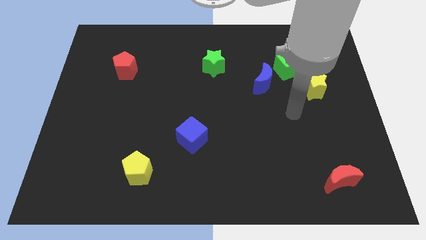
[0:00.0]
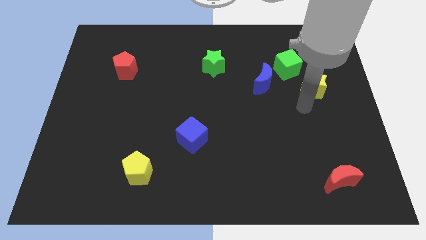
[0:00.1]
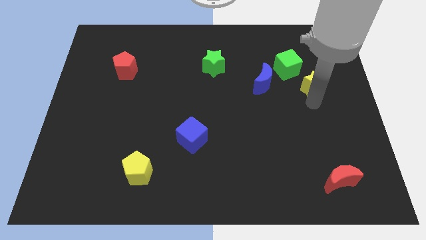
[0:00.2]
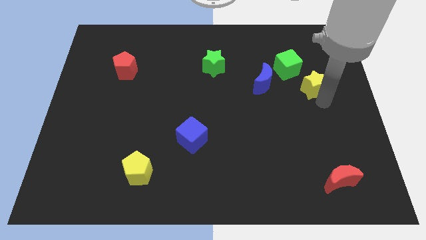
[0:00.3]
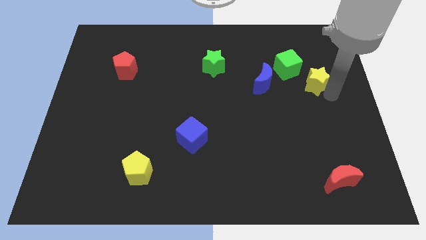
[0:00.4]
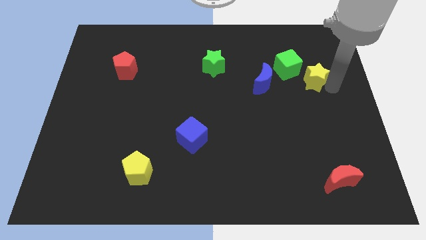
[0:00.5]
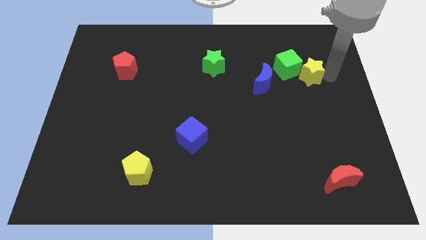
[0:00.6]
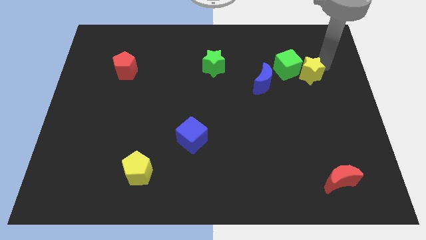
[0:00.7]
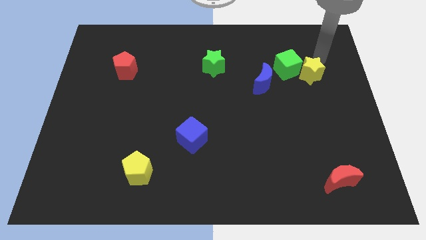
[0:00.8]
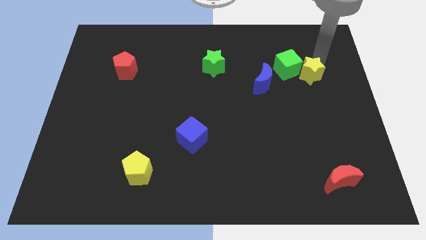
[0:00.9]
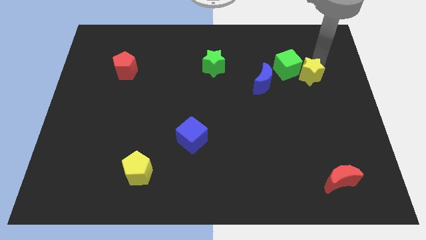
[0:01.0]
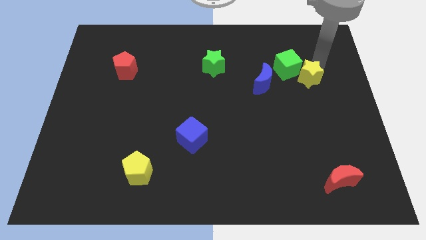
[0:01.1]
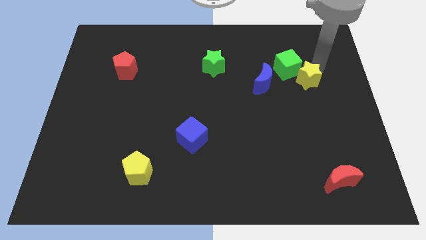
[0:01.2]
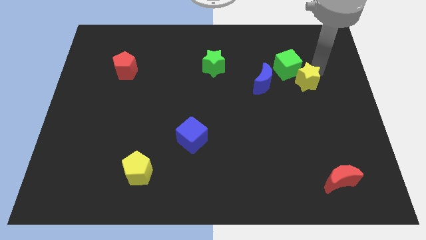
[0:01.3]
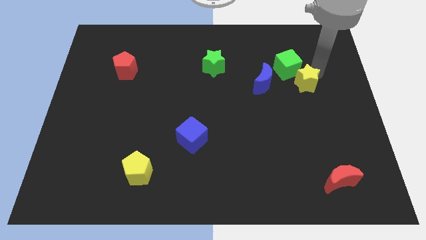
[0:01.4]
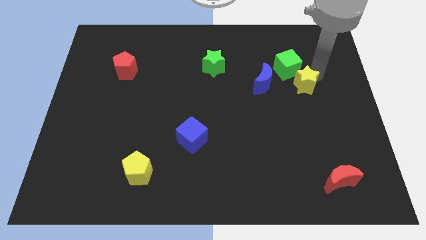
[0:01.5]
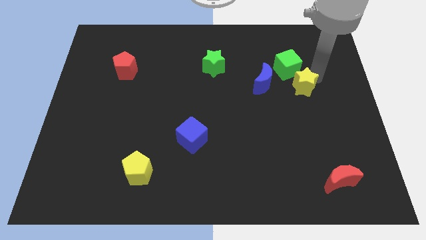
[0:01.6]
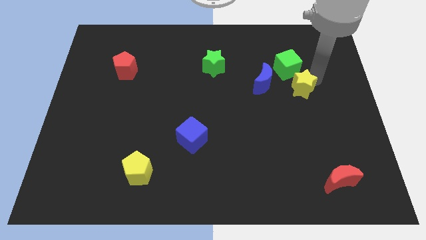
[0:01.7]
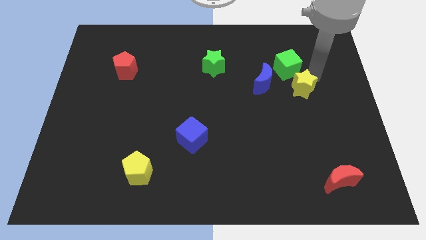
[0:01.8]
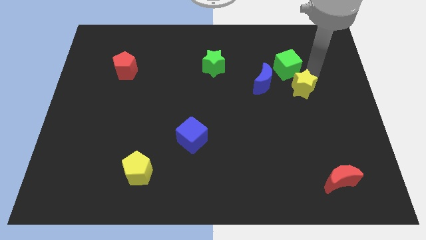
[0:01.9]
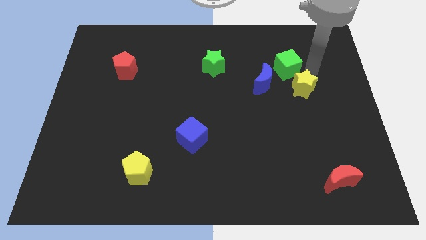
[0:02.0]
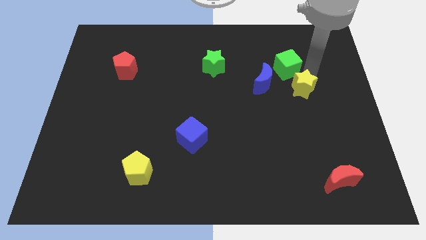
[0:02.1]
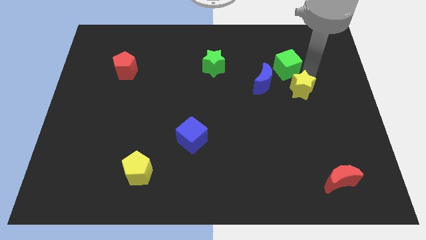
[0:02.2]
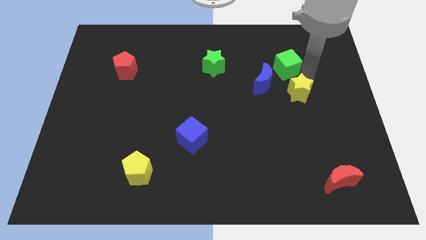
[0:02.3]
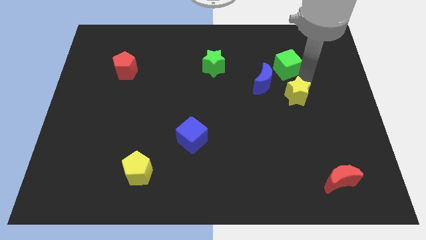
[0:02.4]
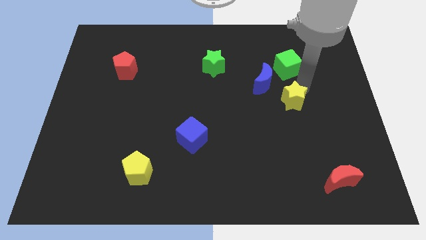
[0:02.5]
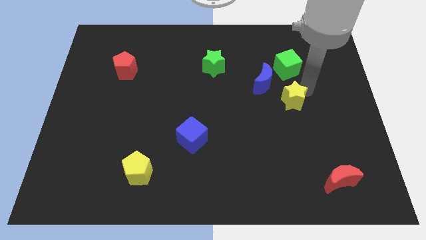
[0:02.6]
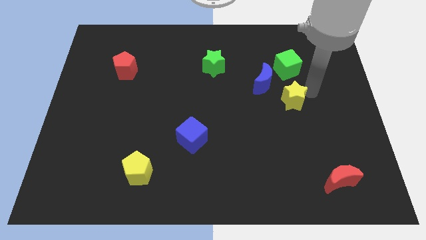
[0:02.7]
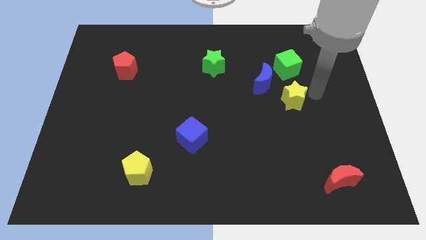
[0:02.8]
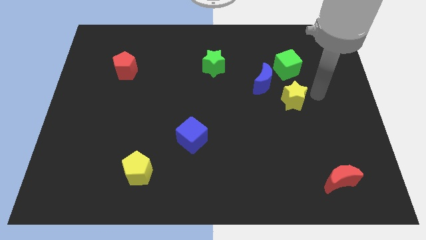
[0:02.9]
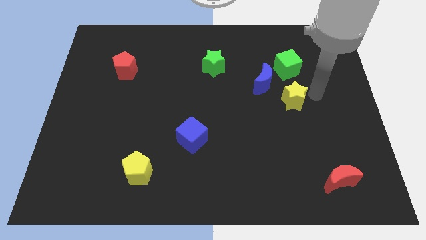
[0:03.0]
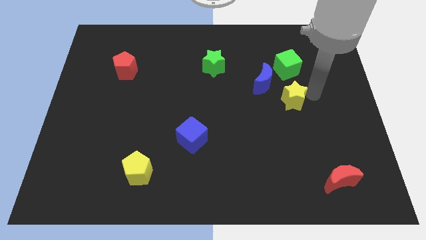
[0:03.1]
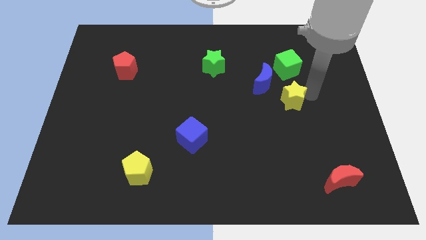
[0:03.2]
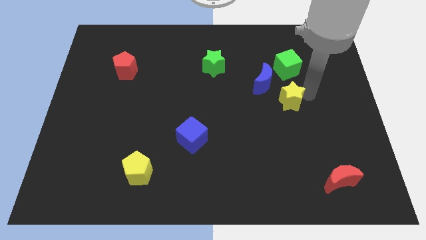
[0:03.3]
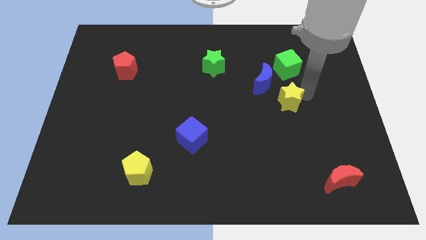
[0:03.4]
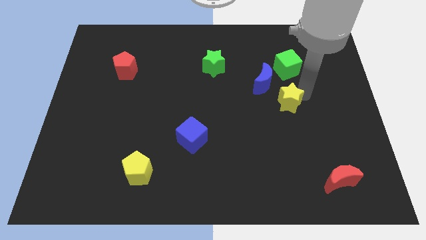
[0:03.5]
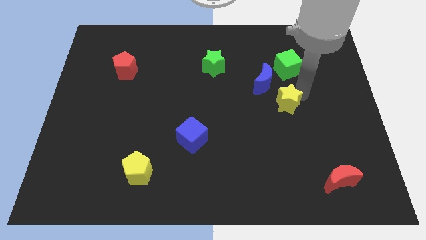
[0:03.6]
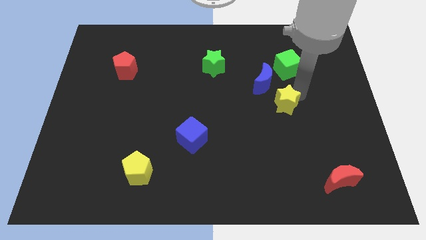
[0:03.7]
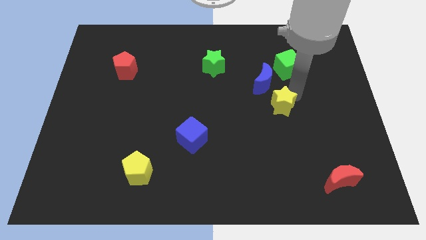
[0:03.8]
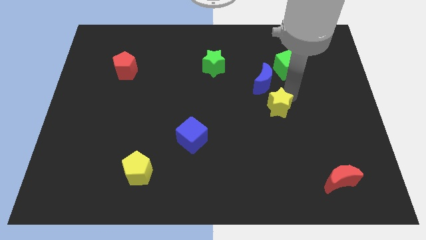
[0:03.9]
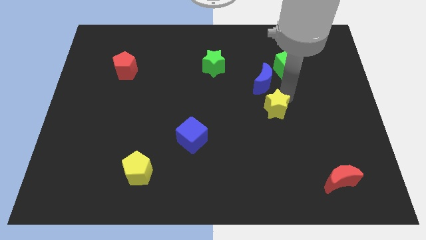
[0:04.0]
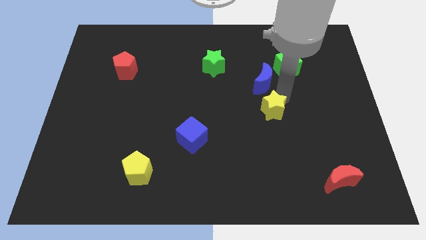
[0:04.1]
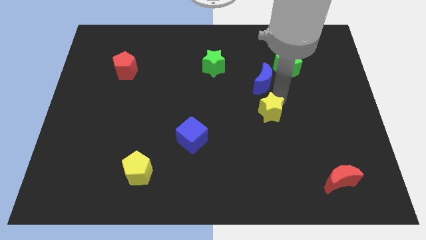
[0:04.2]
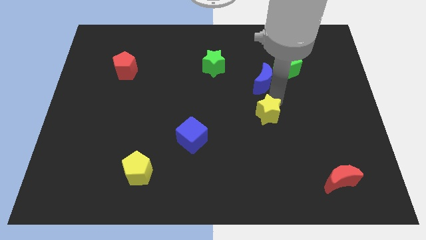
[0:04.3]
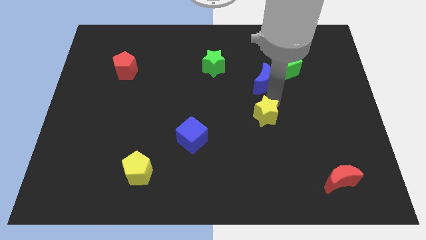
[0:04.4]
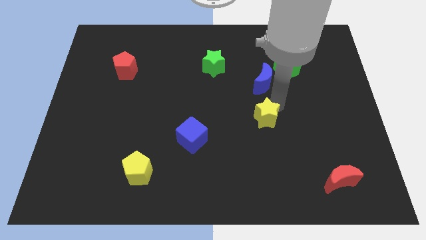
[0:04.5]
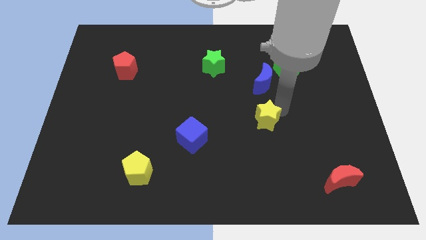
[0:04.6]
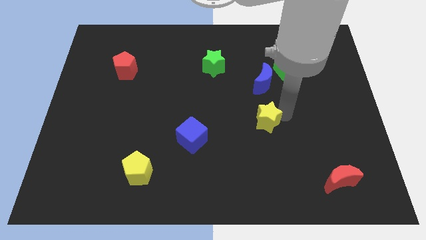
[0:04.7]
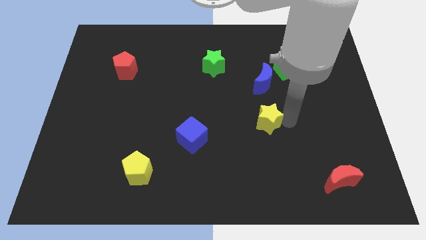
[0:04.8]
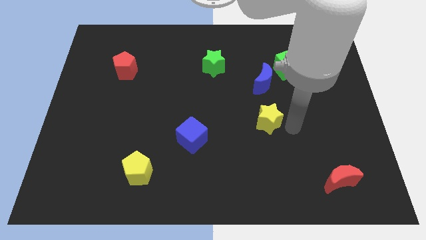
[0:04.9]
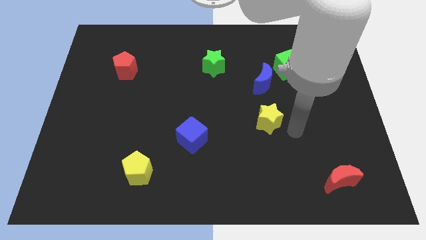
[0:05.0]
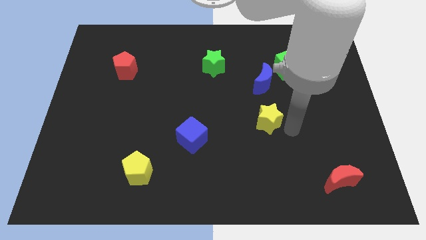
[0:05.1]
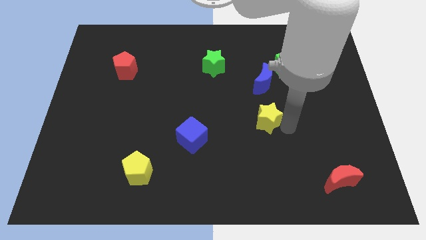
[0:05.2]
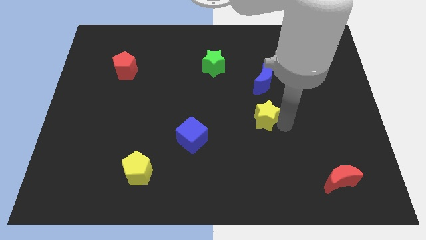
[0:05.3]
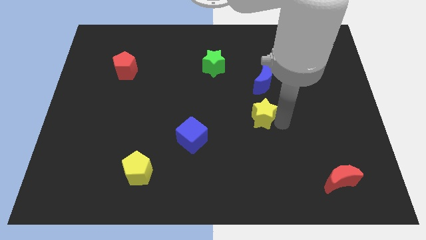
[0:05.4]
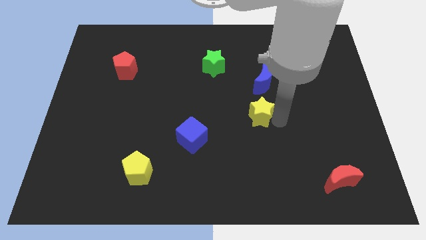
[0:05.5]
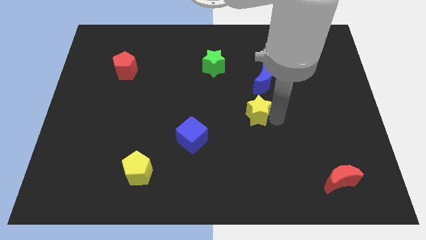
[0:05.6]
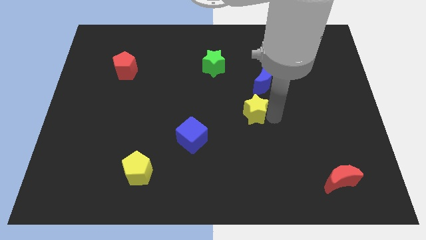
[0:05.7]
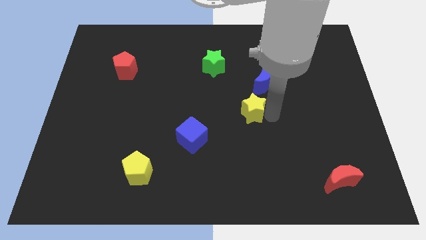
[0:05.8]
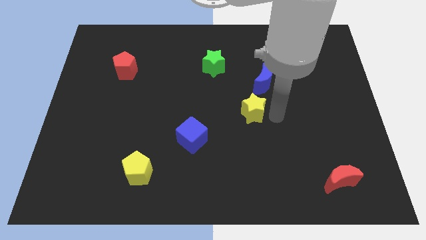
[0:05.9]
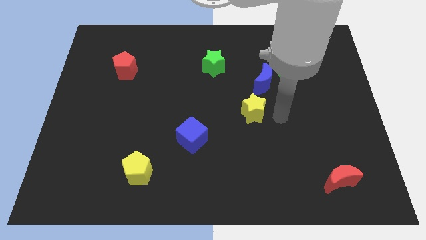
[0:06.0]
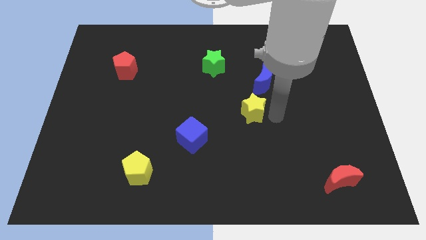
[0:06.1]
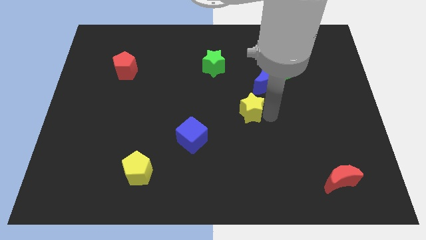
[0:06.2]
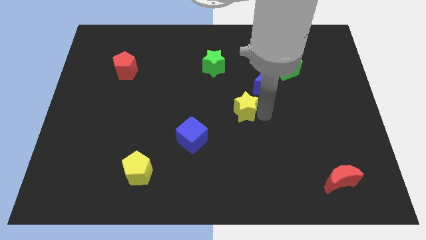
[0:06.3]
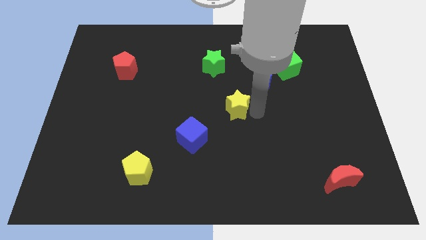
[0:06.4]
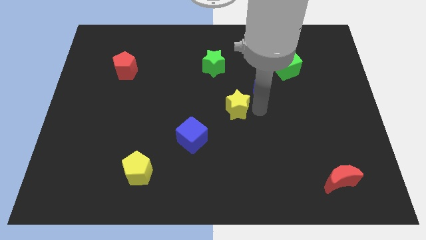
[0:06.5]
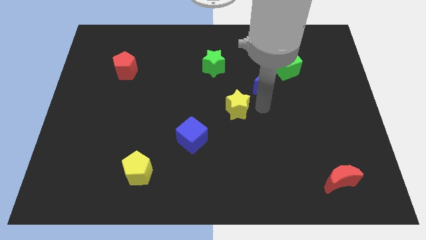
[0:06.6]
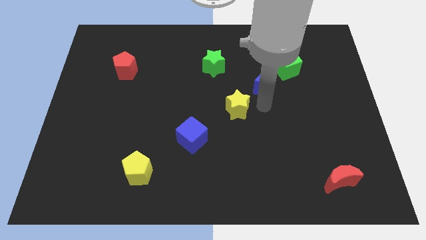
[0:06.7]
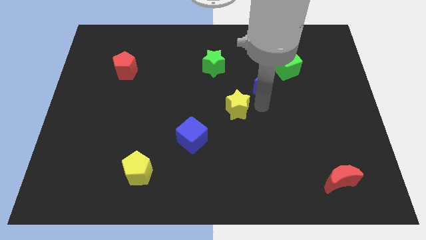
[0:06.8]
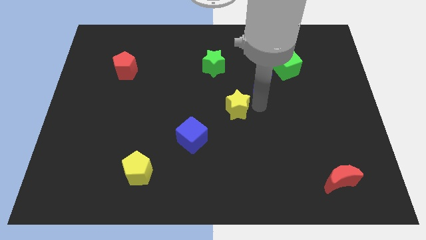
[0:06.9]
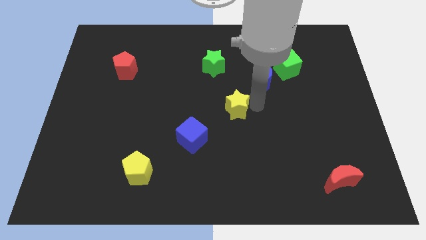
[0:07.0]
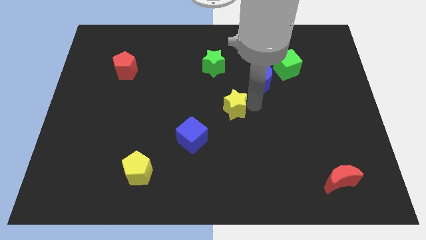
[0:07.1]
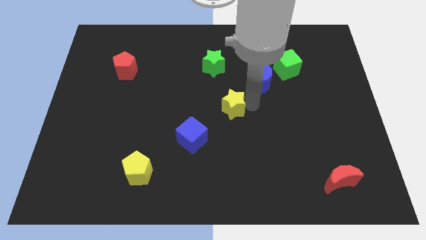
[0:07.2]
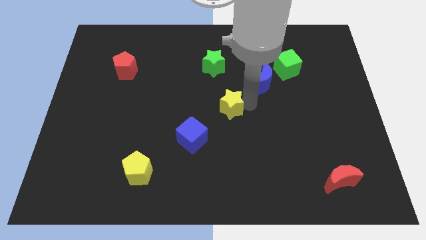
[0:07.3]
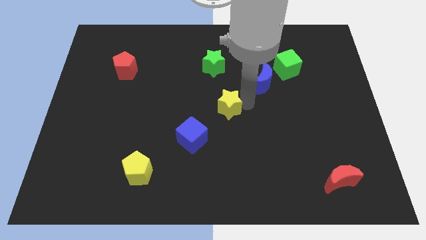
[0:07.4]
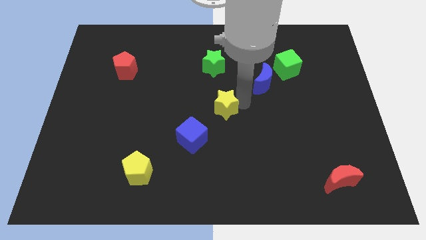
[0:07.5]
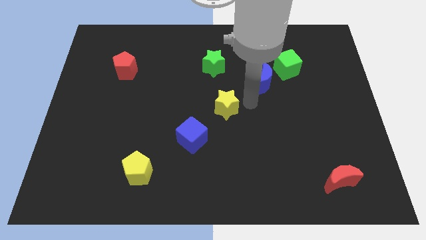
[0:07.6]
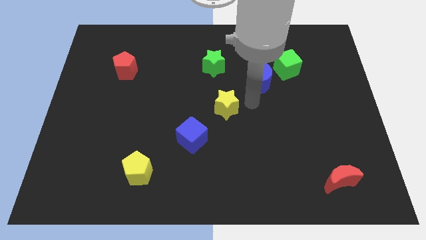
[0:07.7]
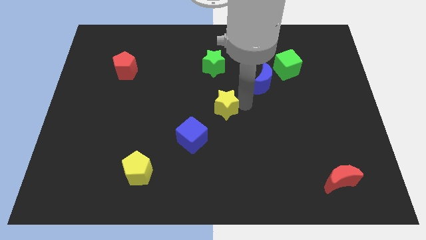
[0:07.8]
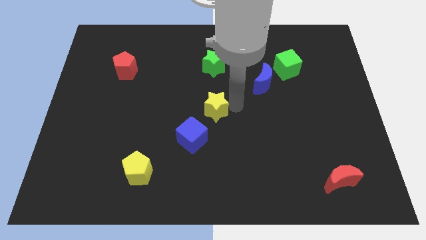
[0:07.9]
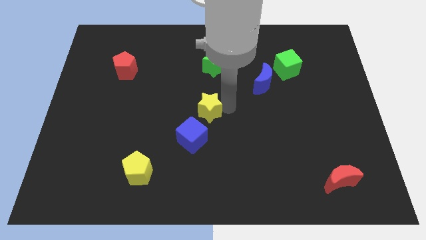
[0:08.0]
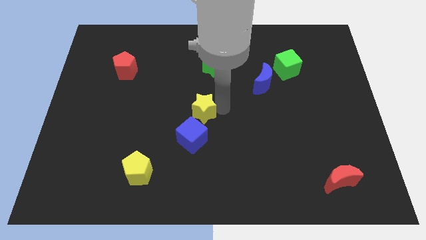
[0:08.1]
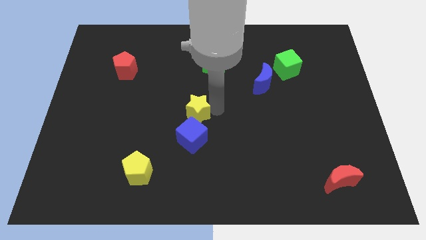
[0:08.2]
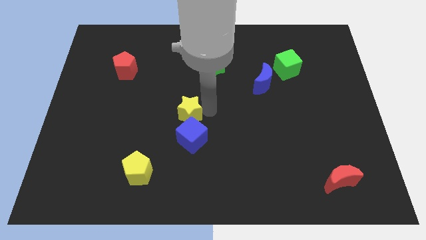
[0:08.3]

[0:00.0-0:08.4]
push the yellow star to the top left side of the blue cube
